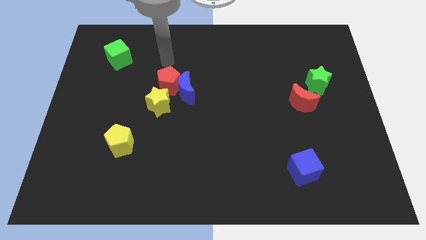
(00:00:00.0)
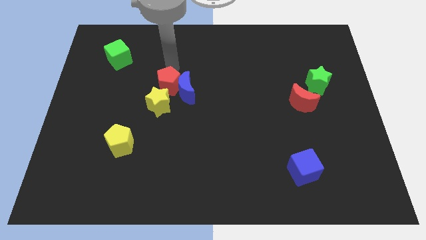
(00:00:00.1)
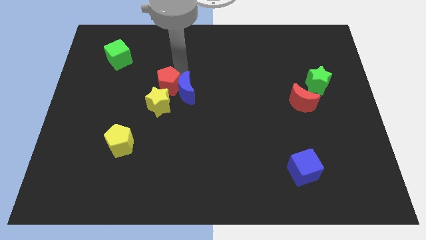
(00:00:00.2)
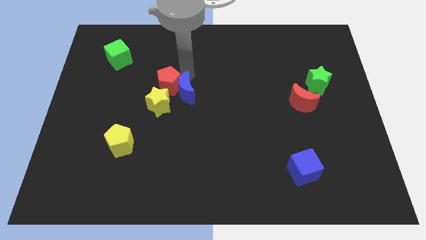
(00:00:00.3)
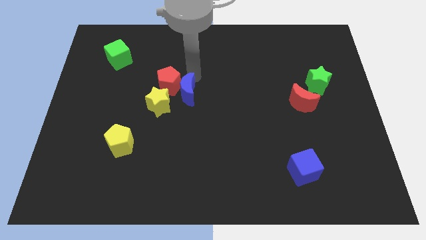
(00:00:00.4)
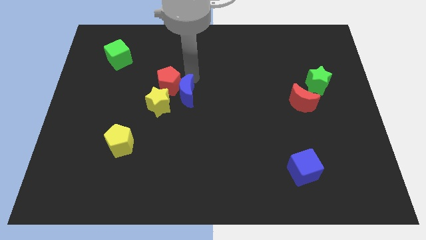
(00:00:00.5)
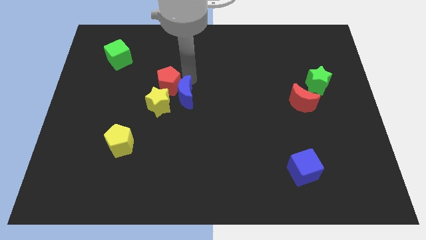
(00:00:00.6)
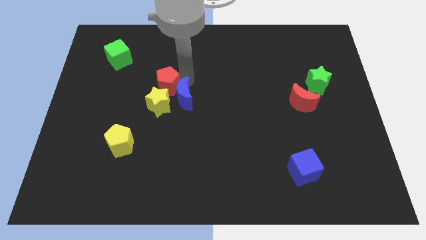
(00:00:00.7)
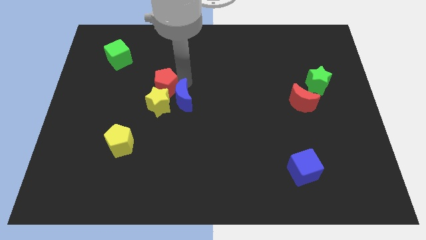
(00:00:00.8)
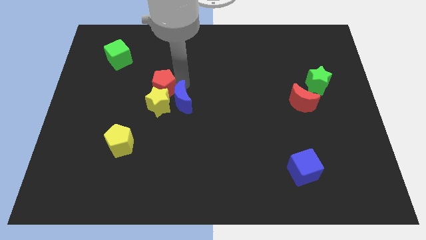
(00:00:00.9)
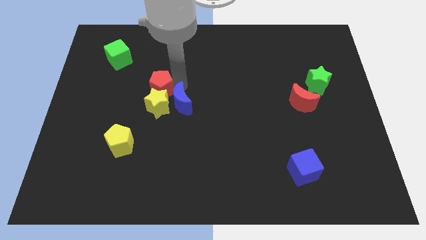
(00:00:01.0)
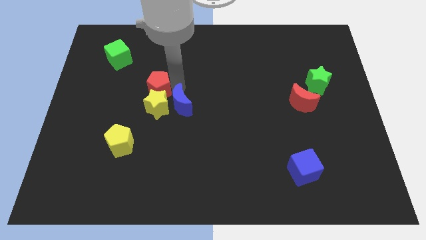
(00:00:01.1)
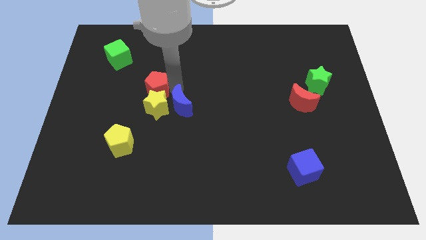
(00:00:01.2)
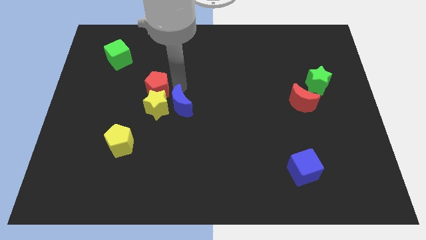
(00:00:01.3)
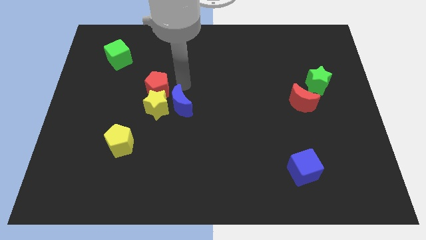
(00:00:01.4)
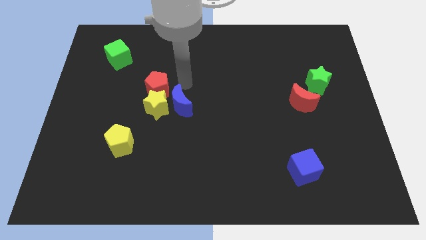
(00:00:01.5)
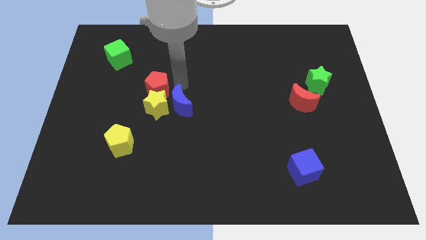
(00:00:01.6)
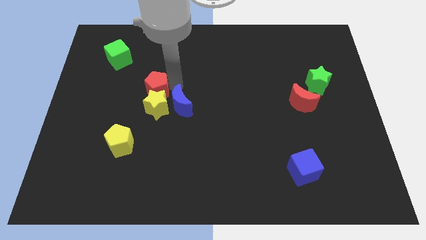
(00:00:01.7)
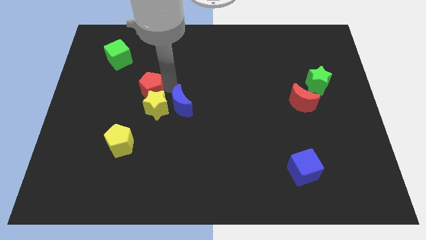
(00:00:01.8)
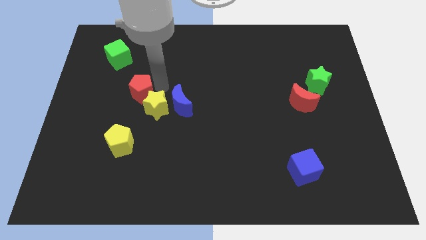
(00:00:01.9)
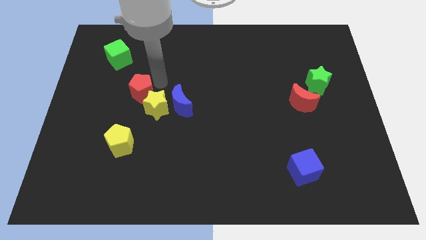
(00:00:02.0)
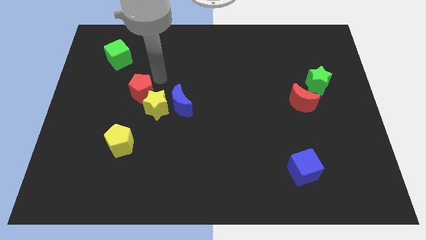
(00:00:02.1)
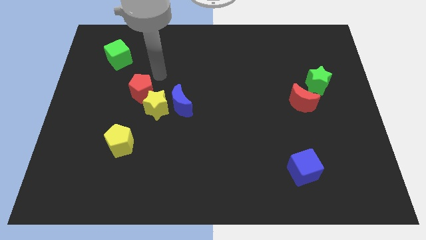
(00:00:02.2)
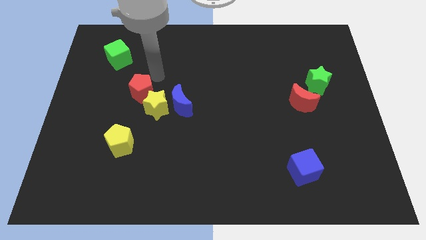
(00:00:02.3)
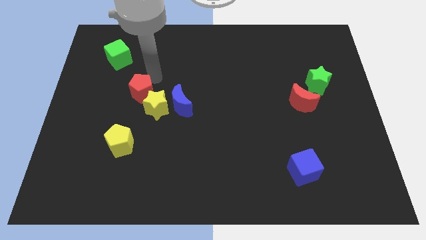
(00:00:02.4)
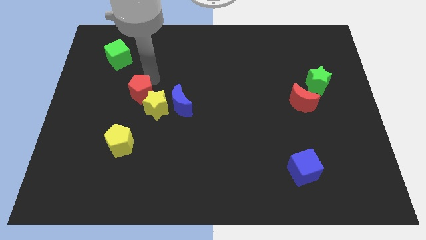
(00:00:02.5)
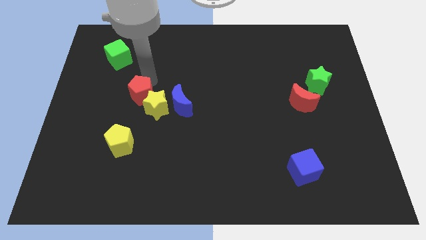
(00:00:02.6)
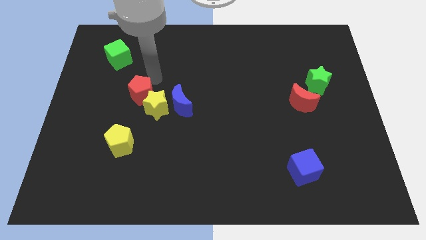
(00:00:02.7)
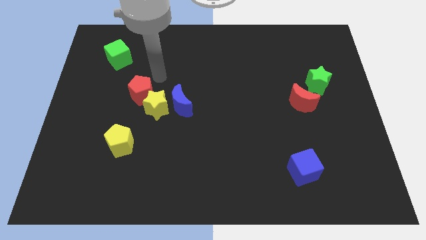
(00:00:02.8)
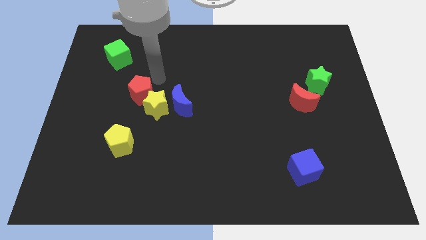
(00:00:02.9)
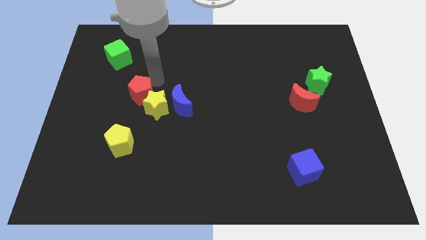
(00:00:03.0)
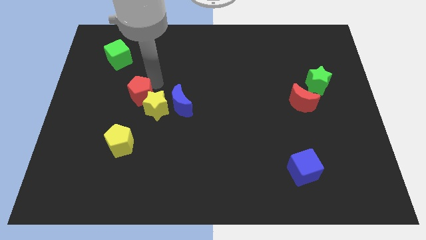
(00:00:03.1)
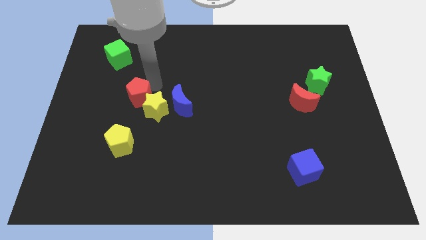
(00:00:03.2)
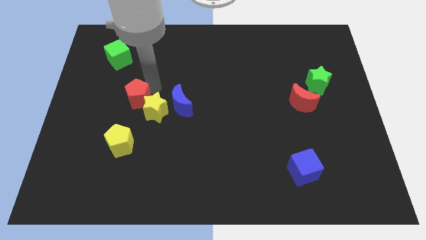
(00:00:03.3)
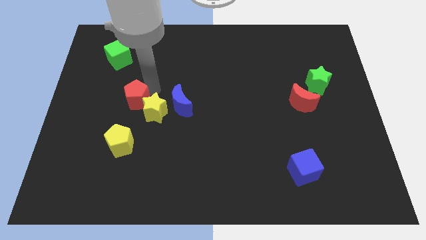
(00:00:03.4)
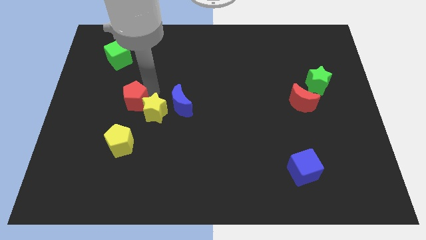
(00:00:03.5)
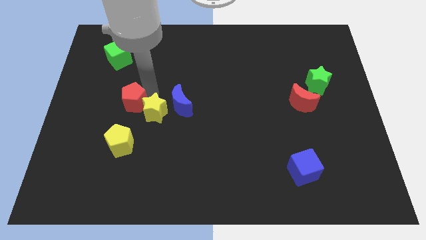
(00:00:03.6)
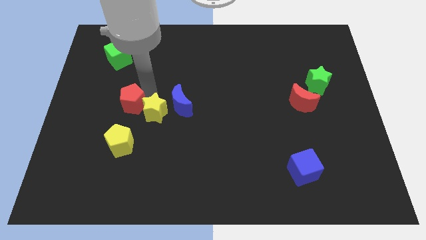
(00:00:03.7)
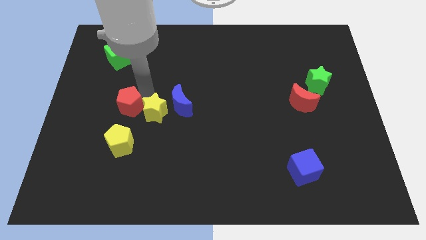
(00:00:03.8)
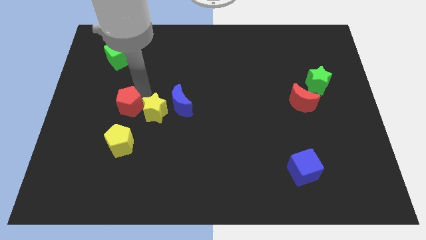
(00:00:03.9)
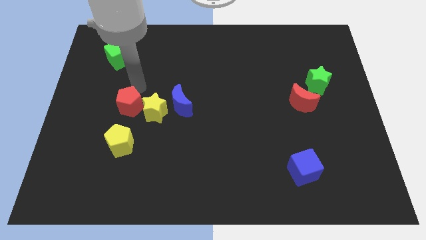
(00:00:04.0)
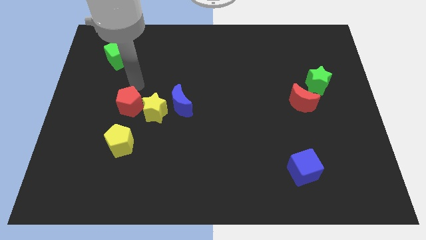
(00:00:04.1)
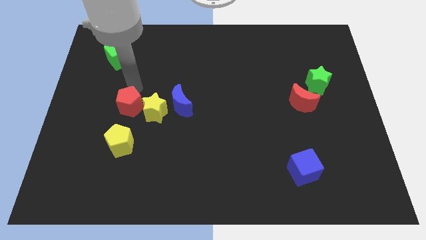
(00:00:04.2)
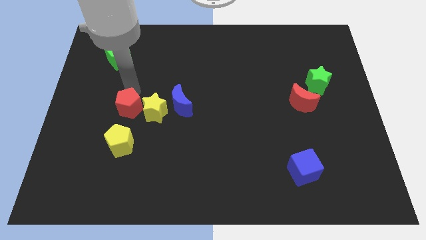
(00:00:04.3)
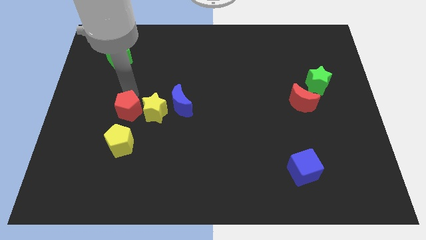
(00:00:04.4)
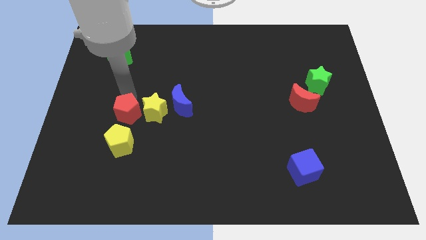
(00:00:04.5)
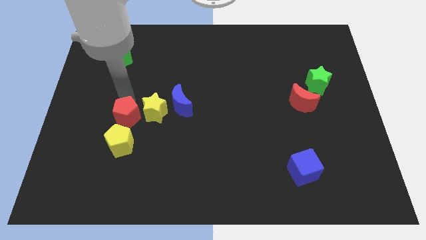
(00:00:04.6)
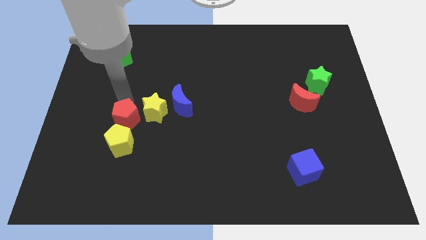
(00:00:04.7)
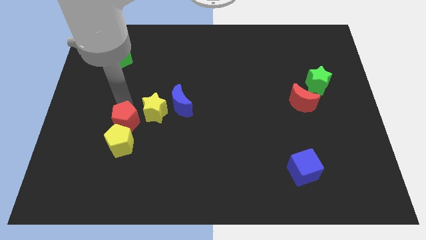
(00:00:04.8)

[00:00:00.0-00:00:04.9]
move the red pentagon towards the yellow pentagon

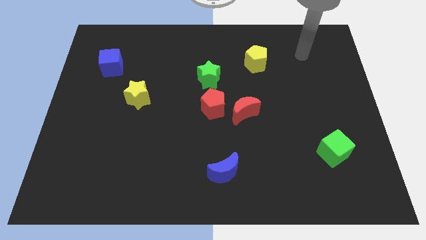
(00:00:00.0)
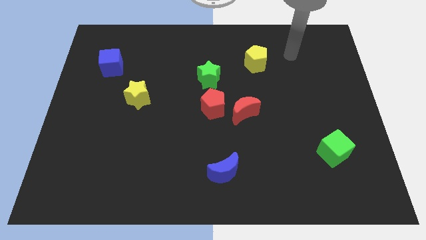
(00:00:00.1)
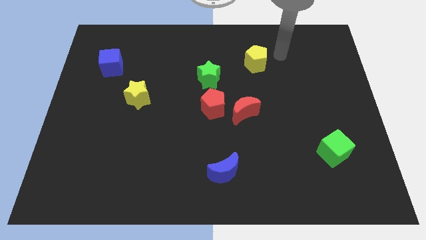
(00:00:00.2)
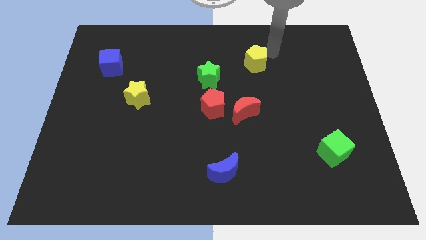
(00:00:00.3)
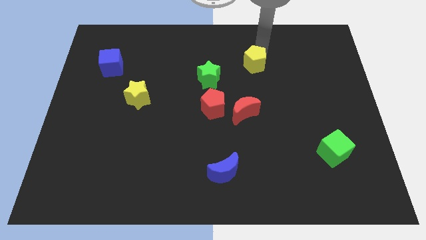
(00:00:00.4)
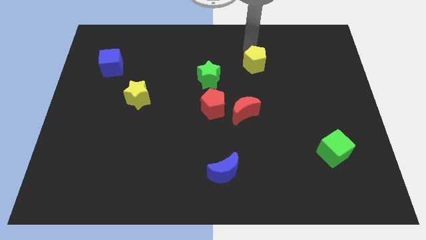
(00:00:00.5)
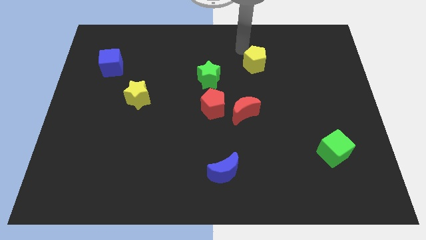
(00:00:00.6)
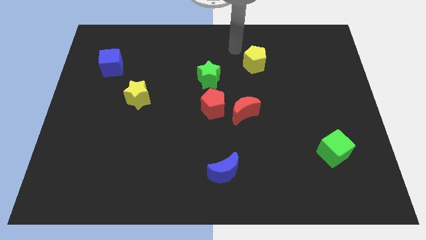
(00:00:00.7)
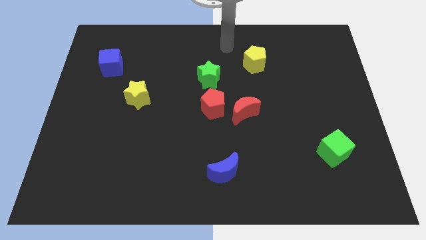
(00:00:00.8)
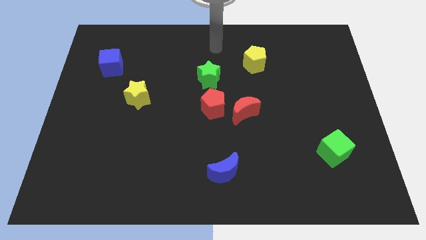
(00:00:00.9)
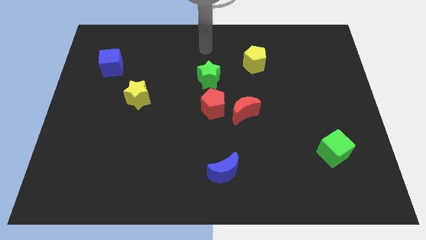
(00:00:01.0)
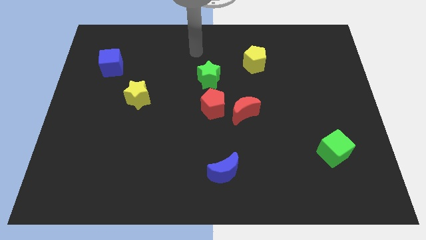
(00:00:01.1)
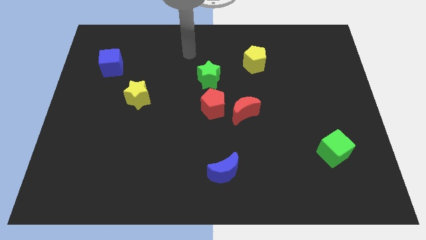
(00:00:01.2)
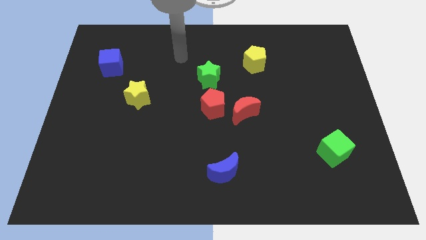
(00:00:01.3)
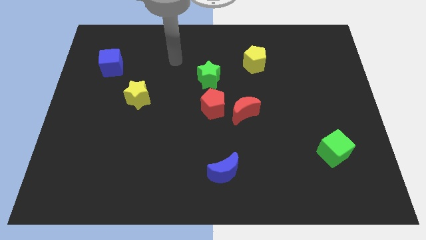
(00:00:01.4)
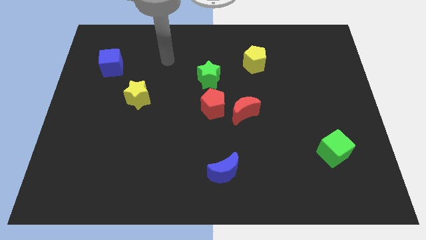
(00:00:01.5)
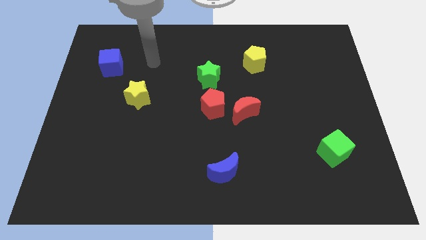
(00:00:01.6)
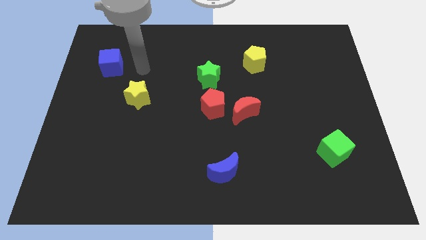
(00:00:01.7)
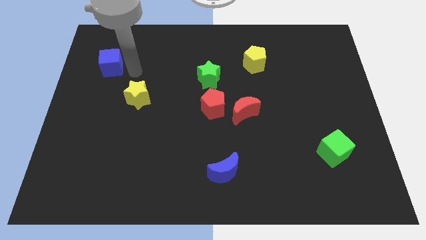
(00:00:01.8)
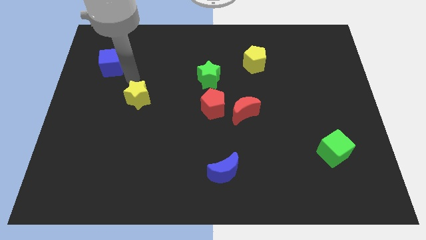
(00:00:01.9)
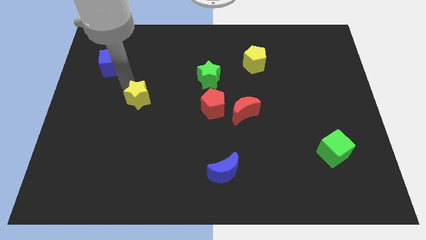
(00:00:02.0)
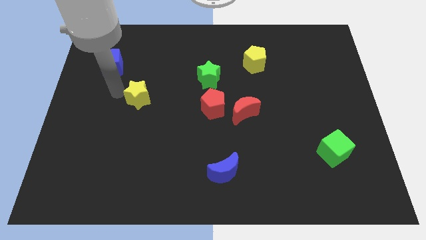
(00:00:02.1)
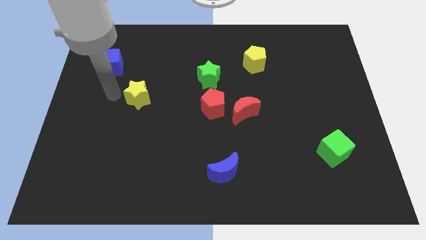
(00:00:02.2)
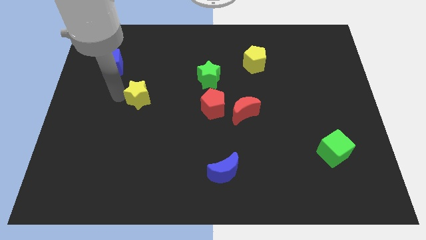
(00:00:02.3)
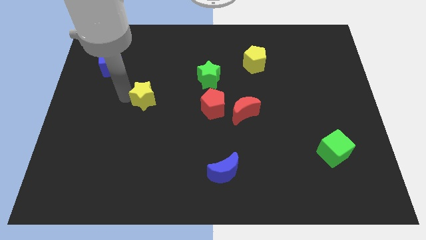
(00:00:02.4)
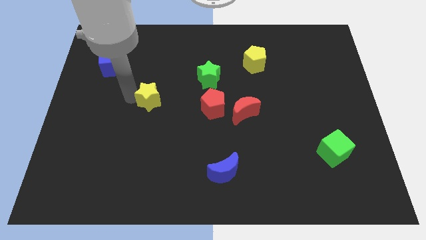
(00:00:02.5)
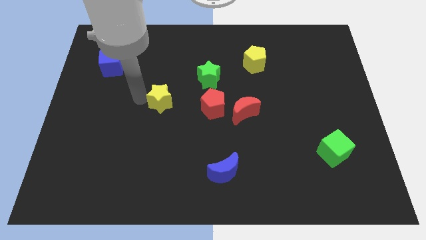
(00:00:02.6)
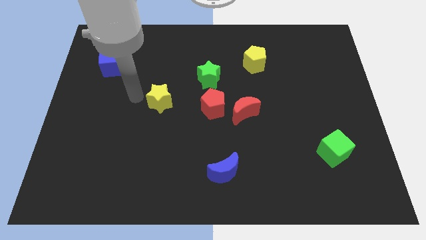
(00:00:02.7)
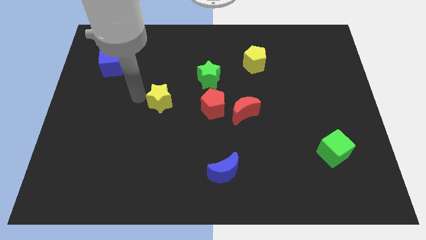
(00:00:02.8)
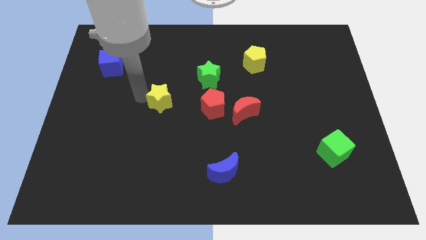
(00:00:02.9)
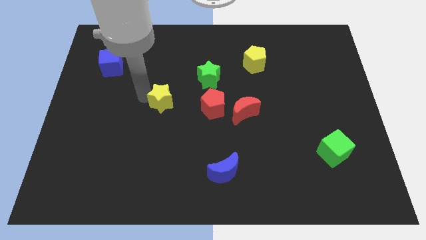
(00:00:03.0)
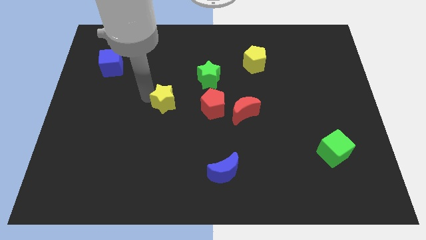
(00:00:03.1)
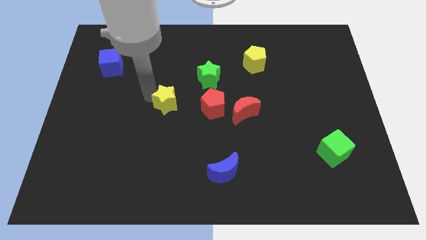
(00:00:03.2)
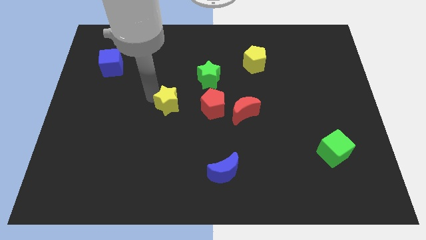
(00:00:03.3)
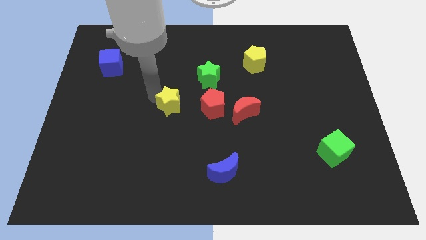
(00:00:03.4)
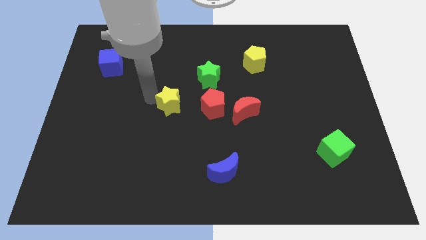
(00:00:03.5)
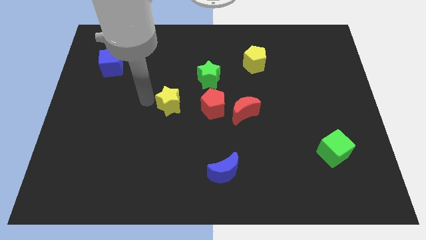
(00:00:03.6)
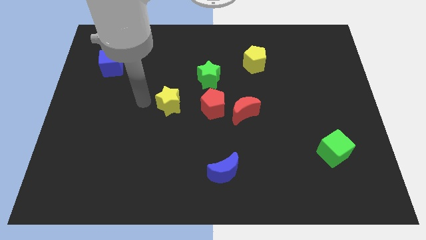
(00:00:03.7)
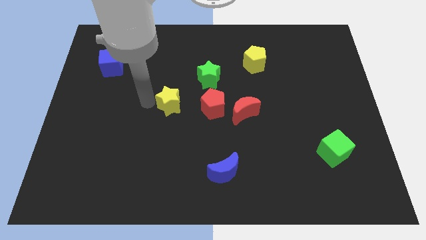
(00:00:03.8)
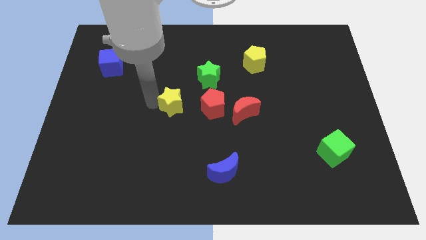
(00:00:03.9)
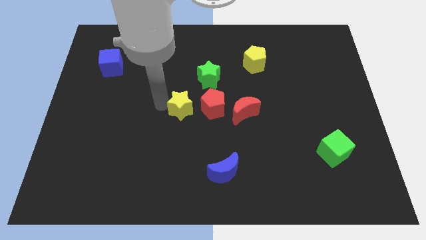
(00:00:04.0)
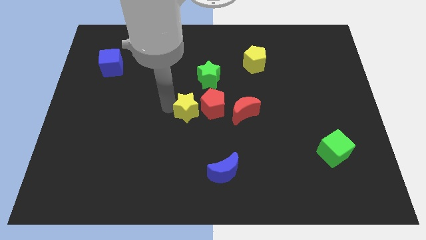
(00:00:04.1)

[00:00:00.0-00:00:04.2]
slide the yellow star to the red pentagon
